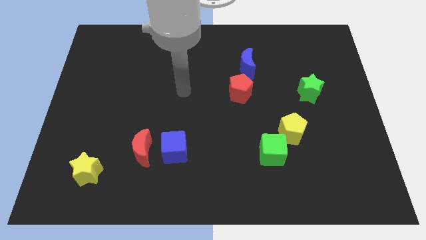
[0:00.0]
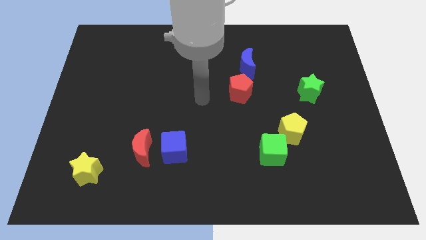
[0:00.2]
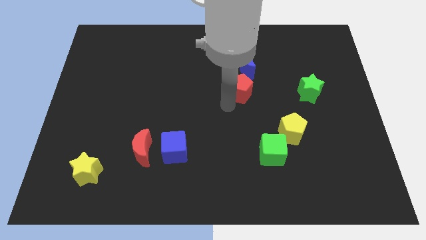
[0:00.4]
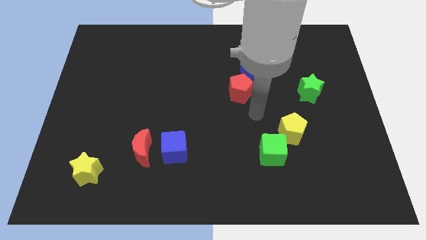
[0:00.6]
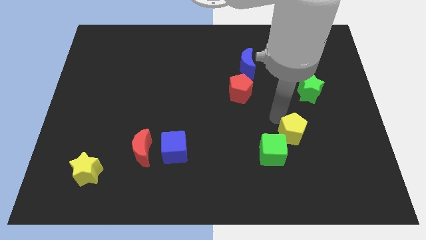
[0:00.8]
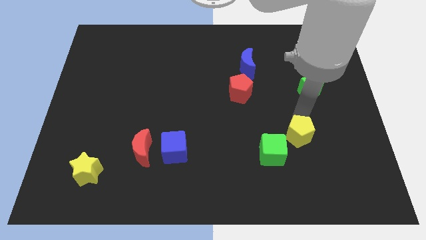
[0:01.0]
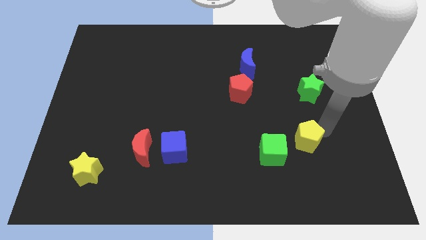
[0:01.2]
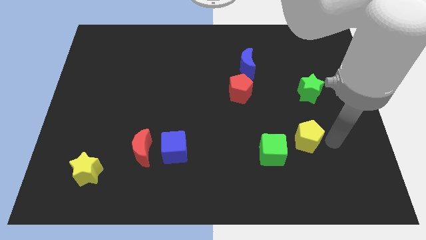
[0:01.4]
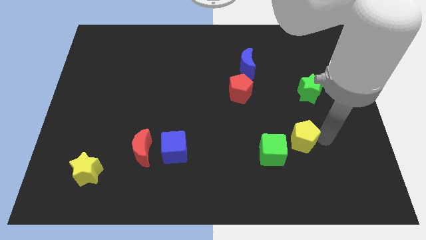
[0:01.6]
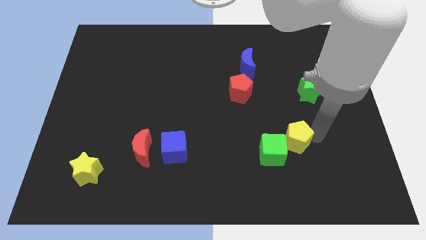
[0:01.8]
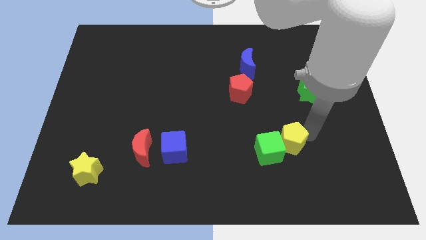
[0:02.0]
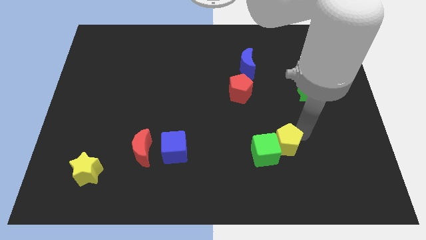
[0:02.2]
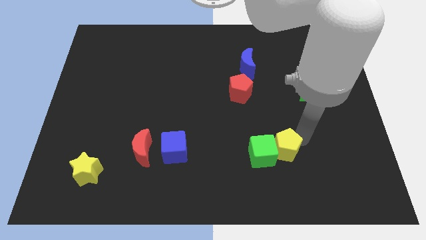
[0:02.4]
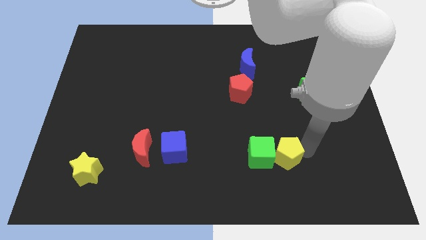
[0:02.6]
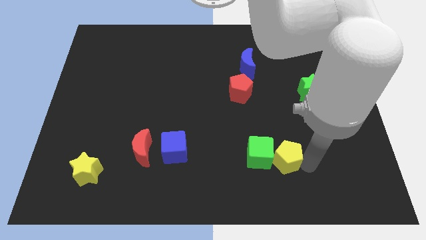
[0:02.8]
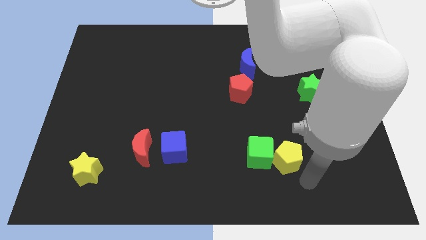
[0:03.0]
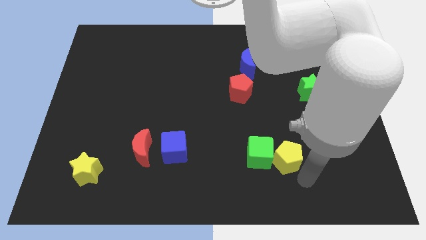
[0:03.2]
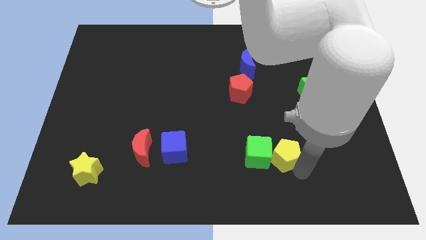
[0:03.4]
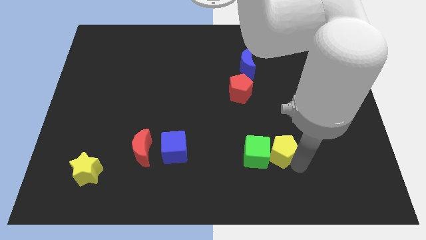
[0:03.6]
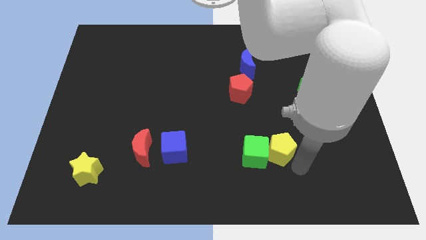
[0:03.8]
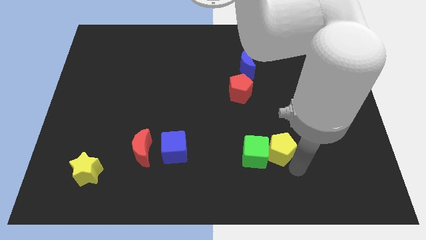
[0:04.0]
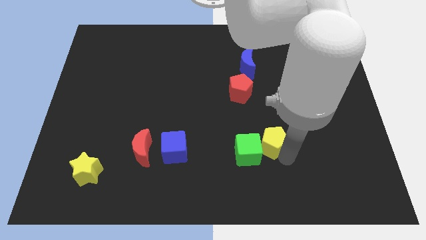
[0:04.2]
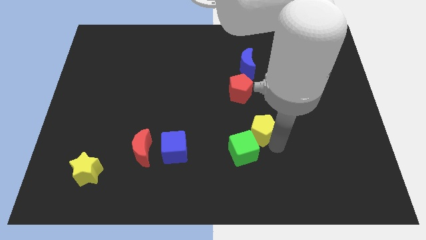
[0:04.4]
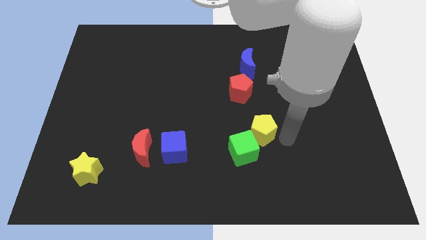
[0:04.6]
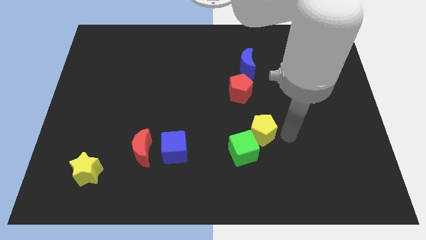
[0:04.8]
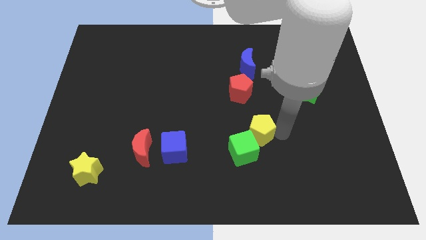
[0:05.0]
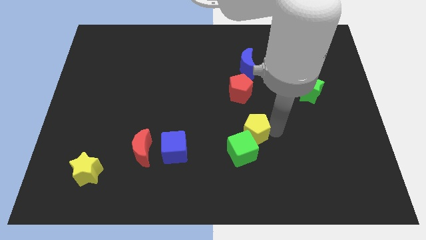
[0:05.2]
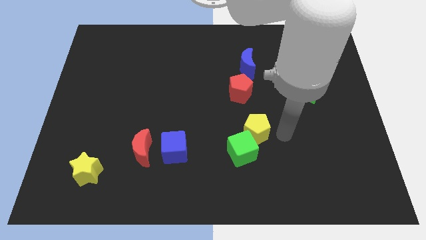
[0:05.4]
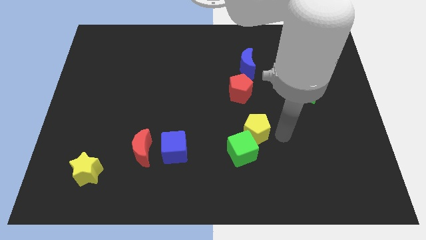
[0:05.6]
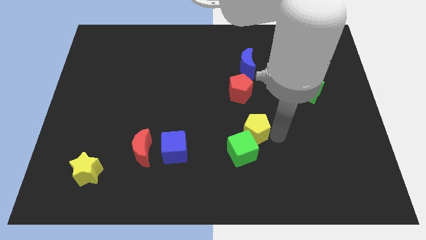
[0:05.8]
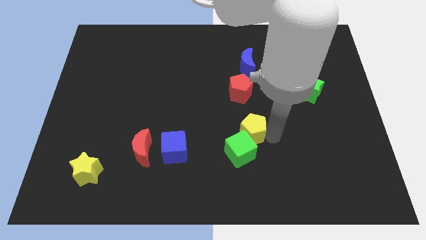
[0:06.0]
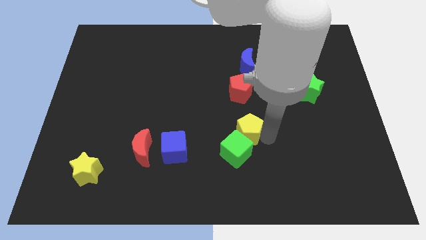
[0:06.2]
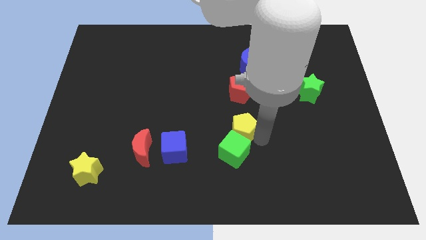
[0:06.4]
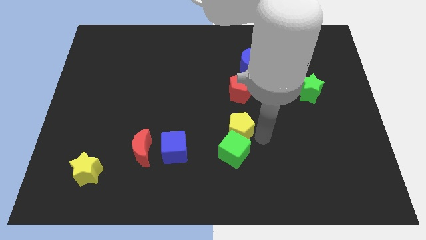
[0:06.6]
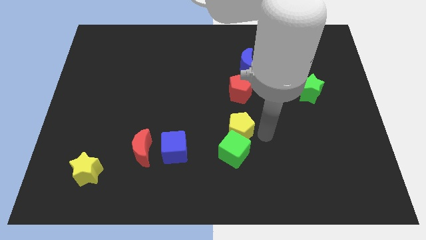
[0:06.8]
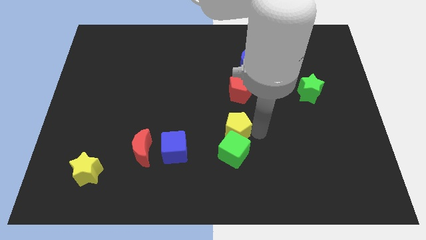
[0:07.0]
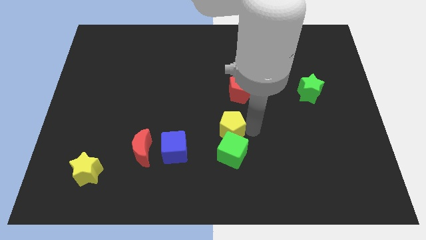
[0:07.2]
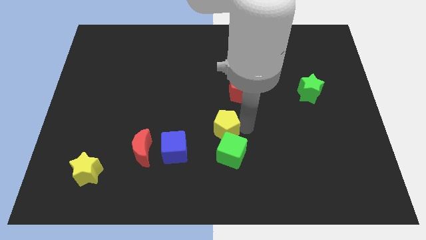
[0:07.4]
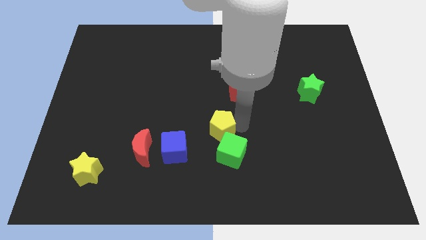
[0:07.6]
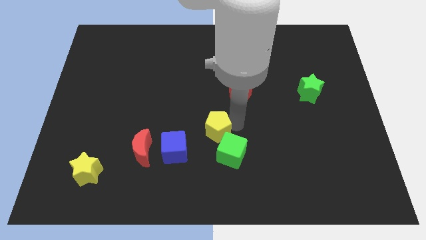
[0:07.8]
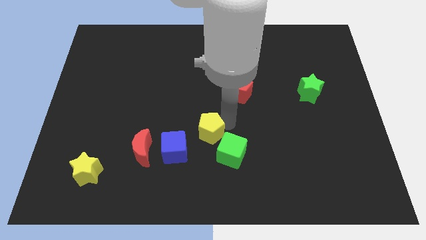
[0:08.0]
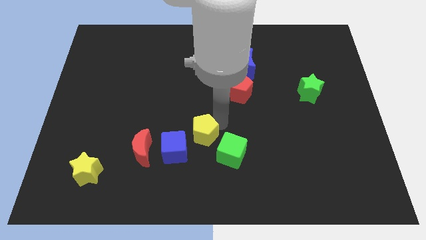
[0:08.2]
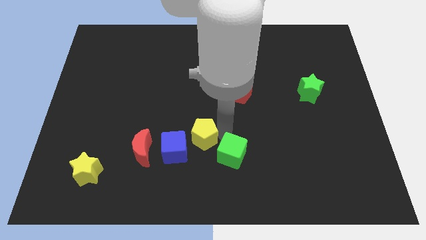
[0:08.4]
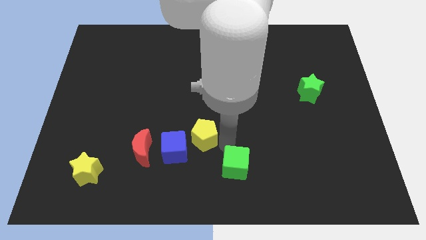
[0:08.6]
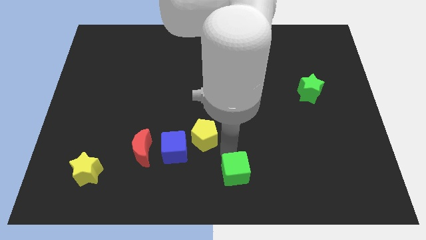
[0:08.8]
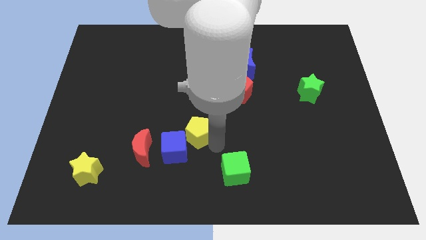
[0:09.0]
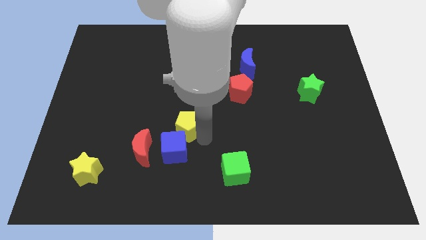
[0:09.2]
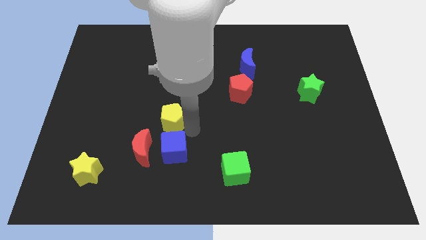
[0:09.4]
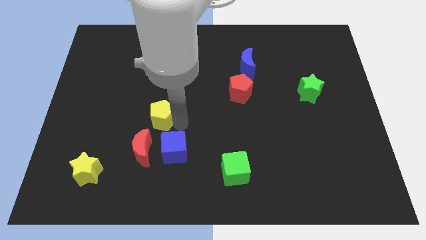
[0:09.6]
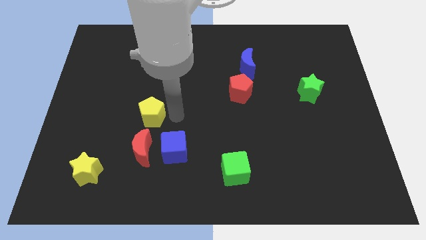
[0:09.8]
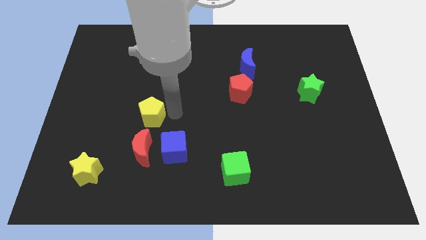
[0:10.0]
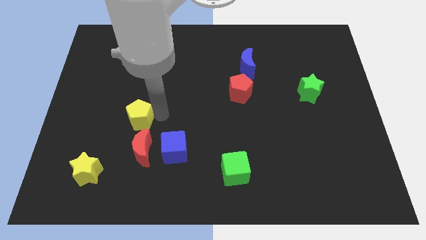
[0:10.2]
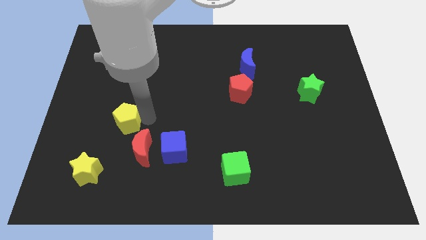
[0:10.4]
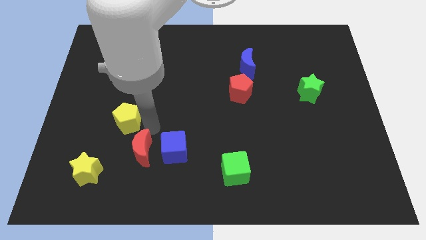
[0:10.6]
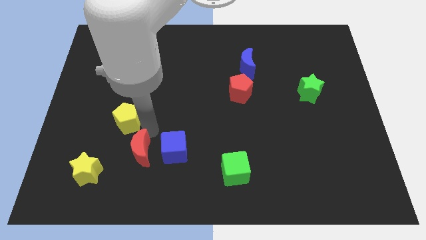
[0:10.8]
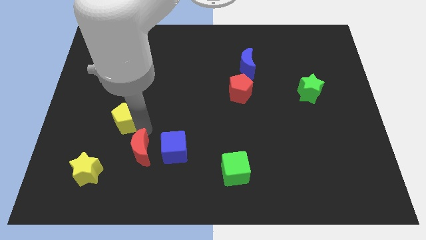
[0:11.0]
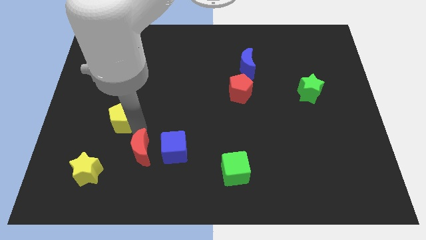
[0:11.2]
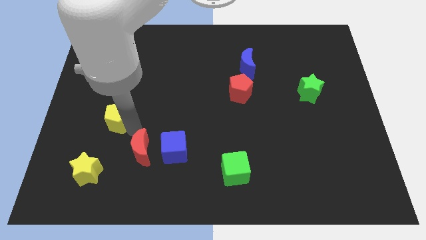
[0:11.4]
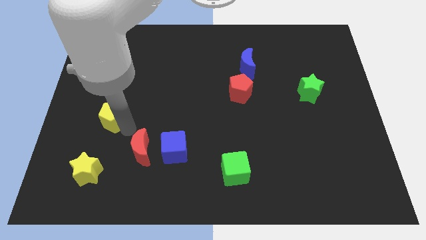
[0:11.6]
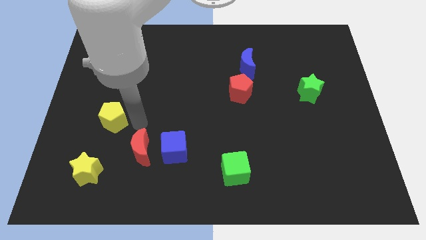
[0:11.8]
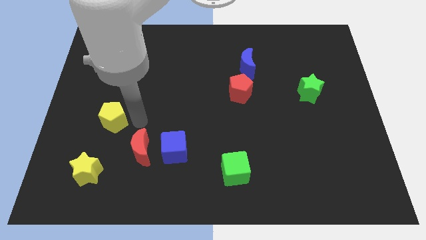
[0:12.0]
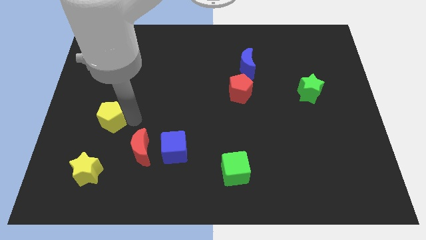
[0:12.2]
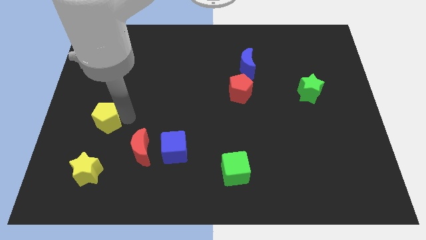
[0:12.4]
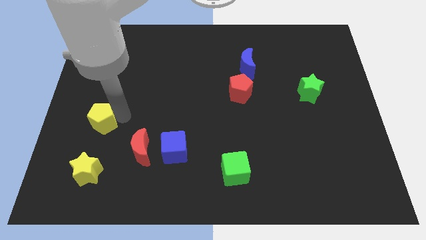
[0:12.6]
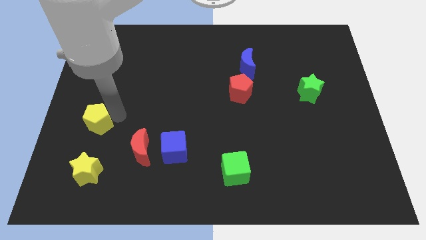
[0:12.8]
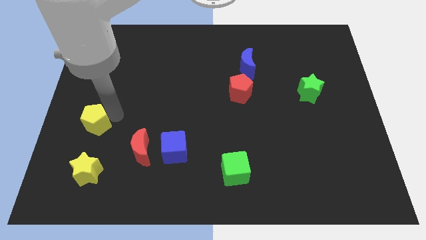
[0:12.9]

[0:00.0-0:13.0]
put the yellow pentagon to the left side

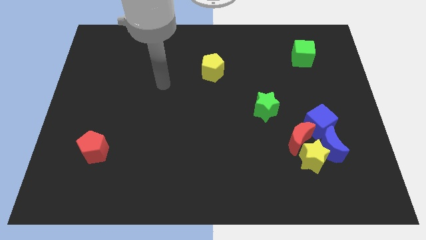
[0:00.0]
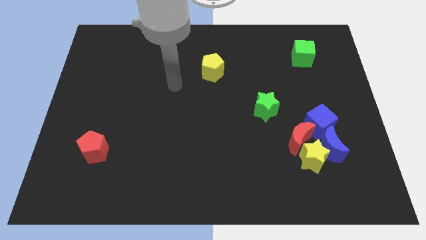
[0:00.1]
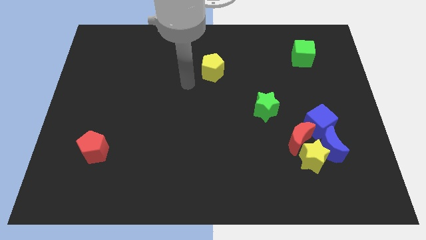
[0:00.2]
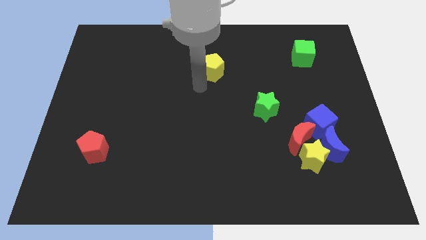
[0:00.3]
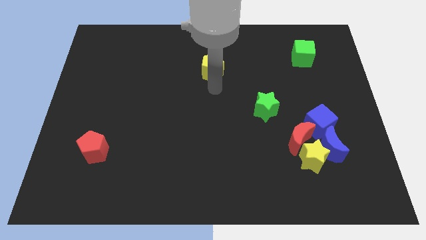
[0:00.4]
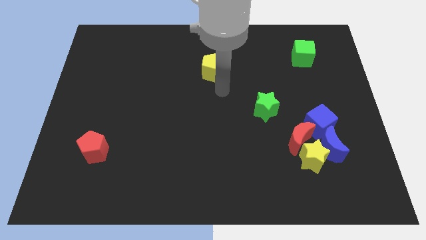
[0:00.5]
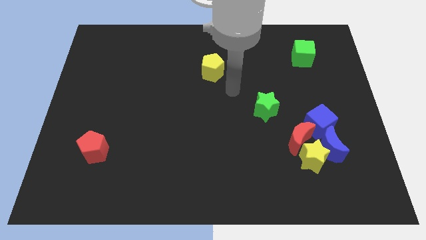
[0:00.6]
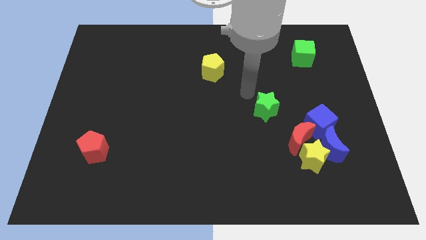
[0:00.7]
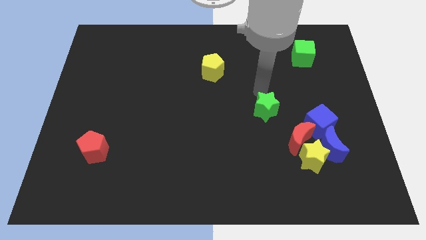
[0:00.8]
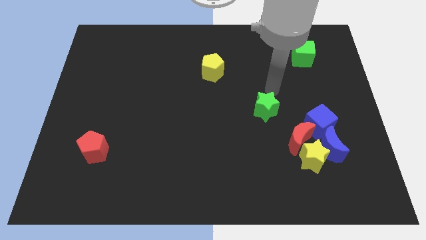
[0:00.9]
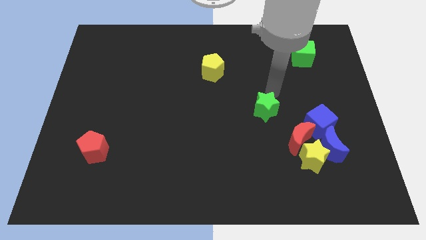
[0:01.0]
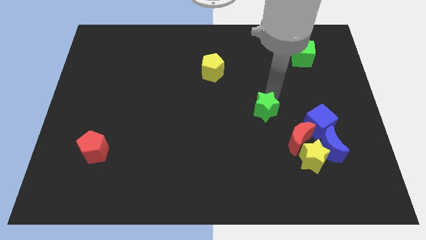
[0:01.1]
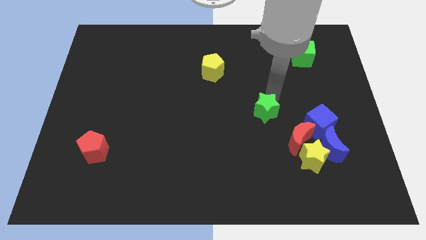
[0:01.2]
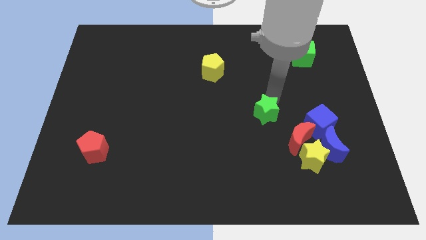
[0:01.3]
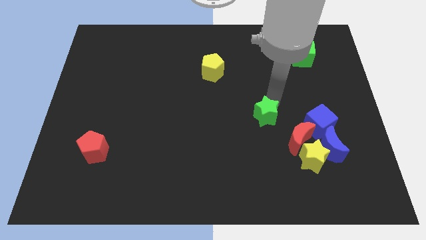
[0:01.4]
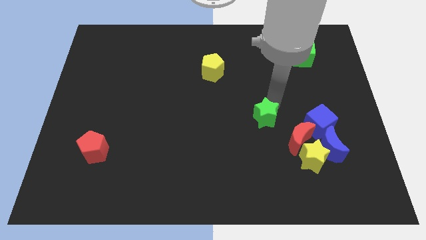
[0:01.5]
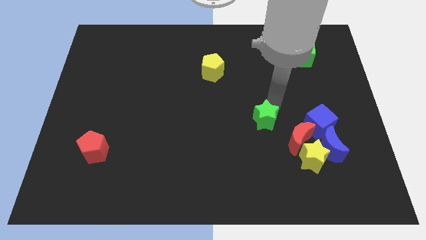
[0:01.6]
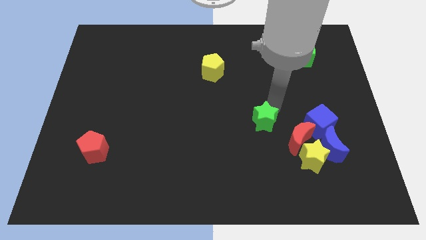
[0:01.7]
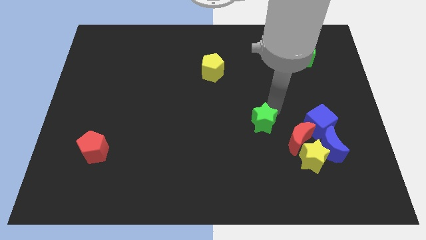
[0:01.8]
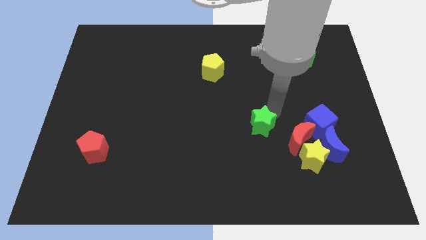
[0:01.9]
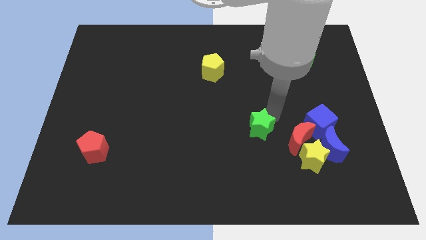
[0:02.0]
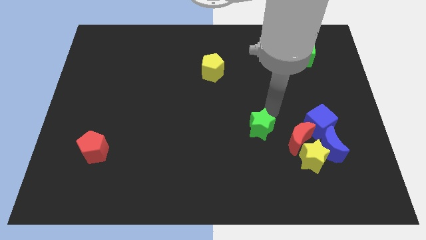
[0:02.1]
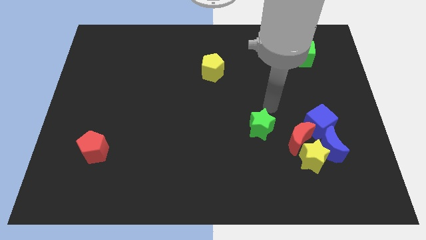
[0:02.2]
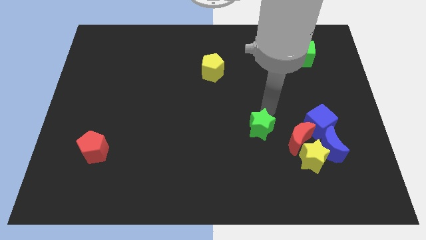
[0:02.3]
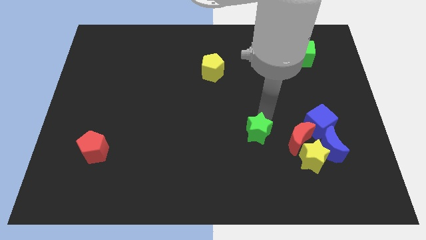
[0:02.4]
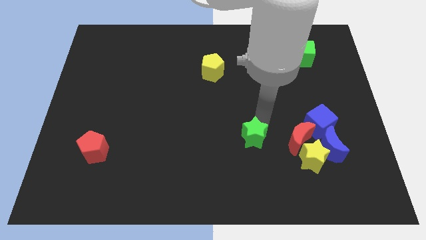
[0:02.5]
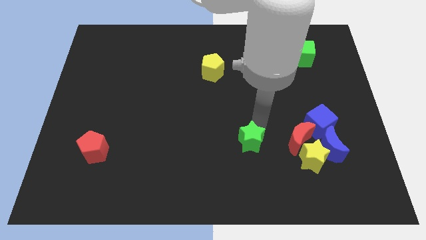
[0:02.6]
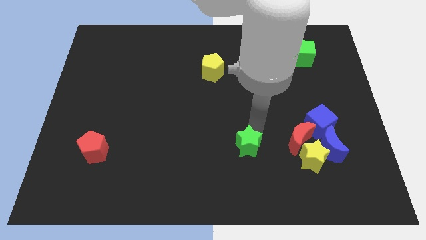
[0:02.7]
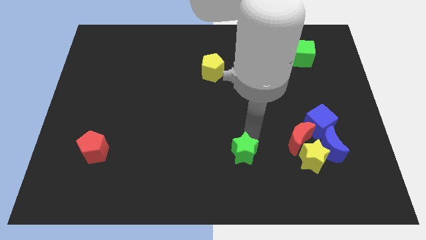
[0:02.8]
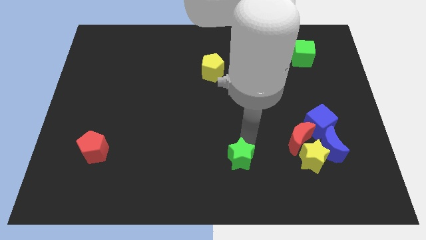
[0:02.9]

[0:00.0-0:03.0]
slide the green star to the bottom side
